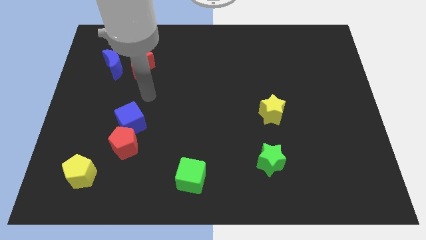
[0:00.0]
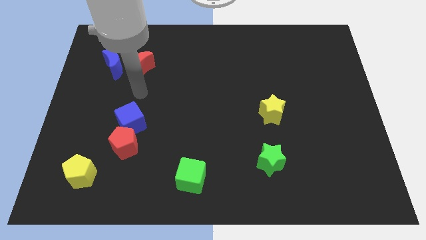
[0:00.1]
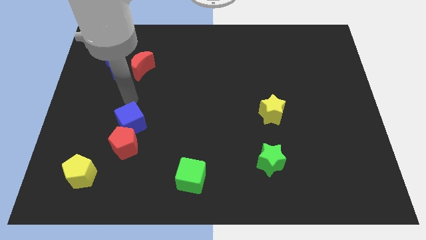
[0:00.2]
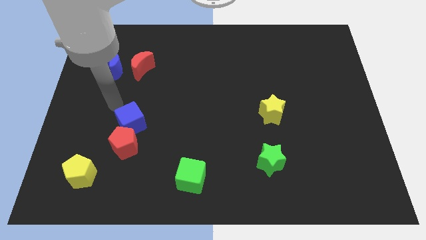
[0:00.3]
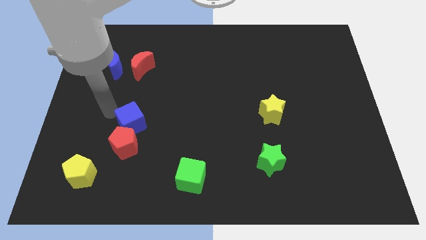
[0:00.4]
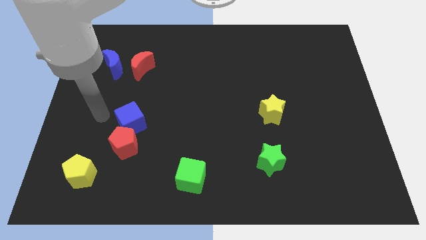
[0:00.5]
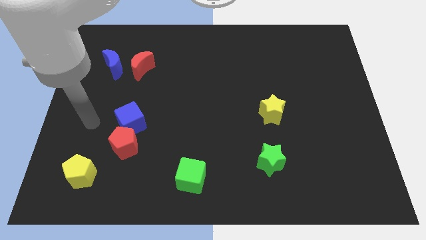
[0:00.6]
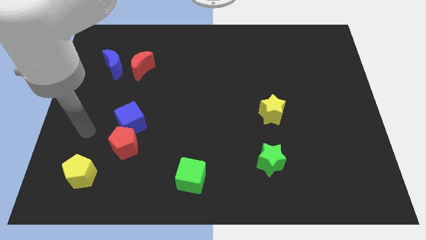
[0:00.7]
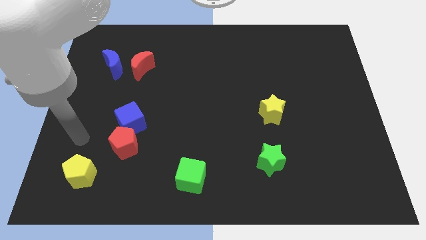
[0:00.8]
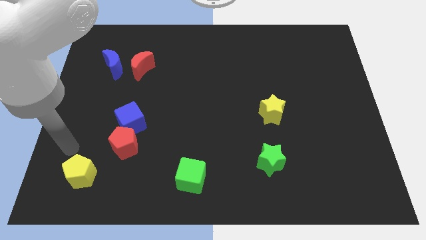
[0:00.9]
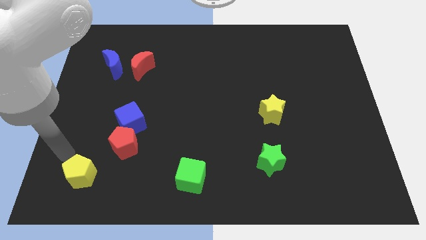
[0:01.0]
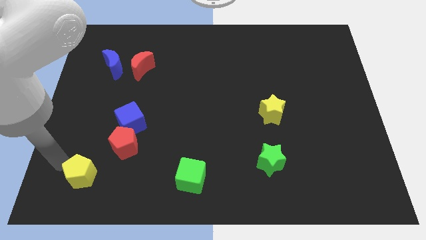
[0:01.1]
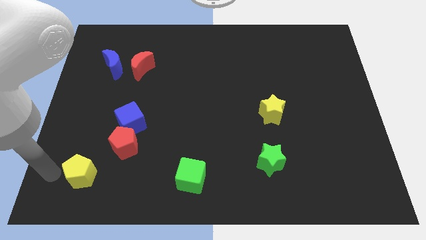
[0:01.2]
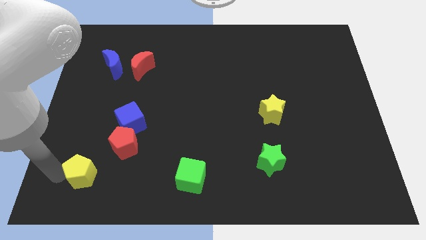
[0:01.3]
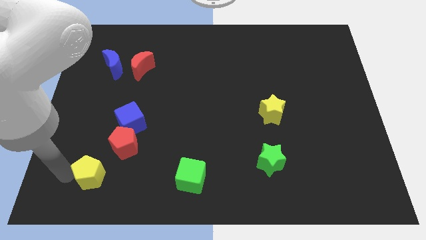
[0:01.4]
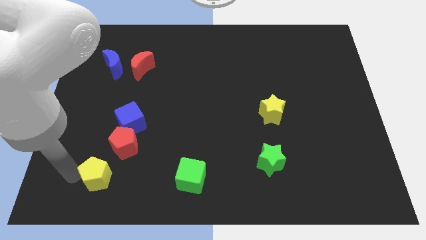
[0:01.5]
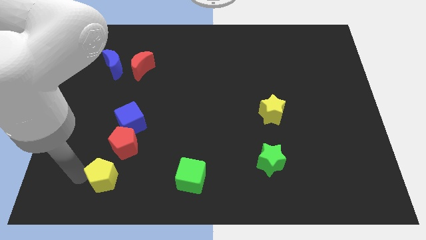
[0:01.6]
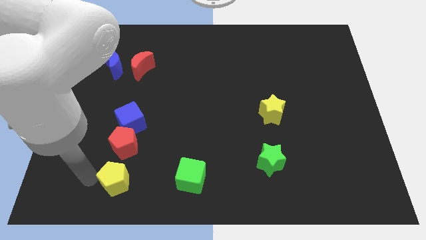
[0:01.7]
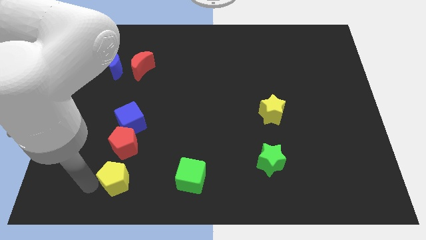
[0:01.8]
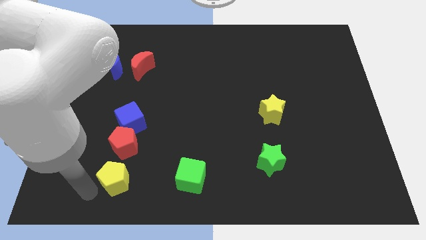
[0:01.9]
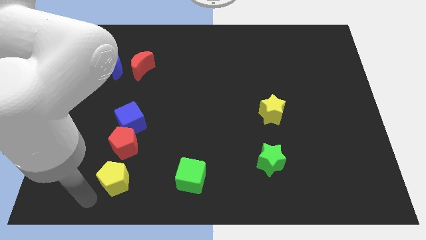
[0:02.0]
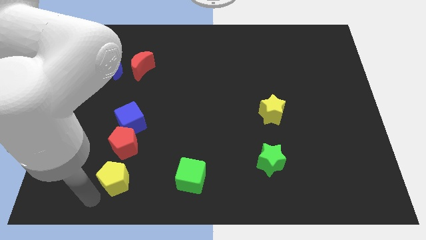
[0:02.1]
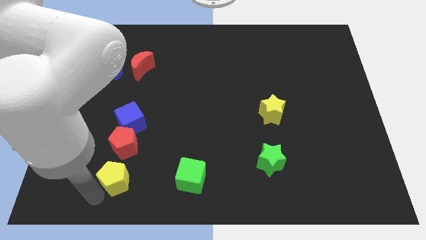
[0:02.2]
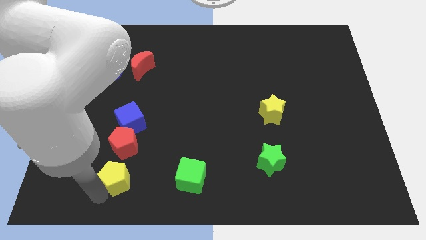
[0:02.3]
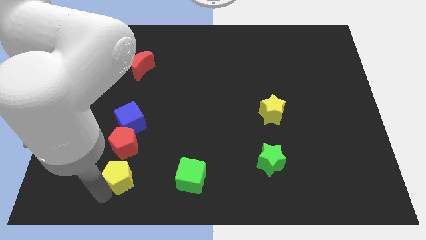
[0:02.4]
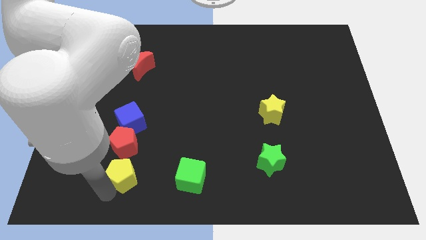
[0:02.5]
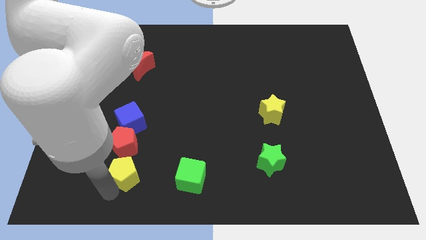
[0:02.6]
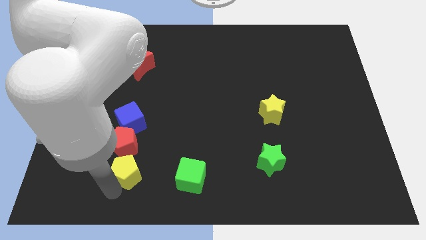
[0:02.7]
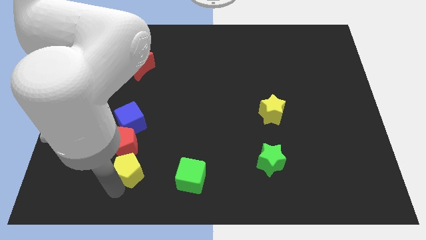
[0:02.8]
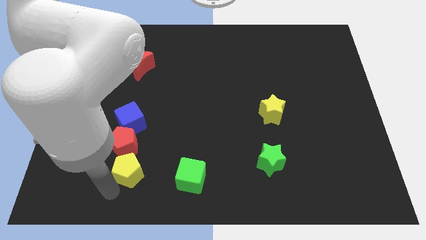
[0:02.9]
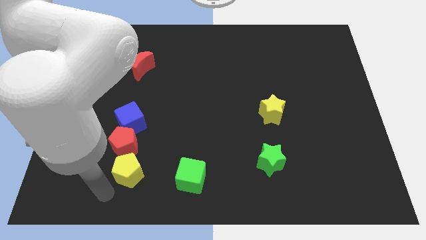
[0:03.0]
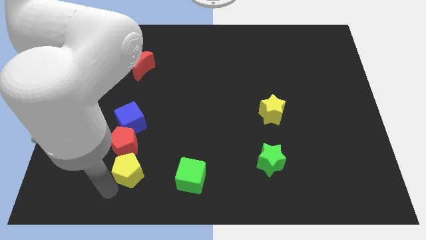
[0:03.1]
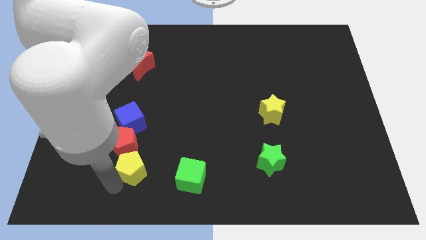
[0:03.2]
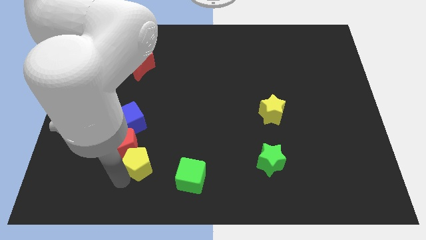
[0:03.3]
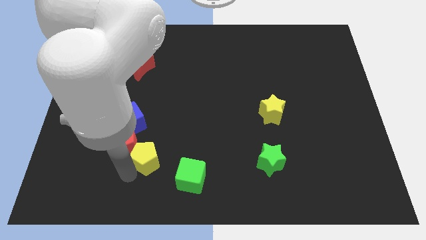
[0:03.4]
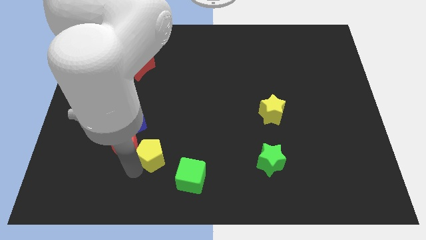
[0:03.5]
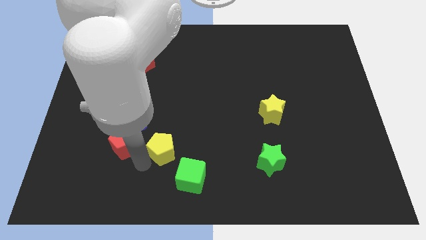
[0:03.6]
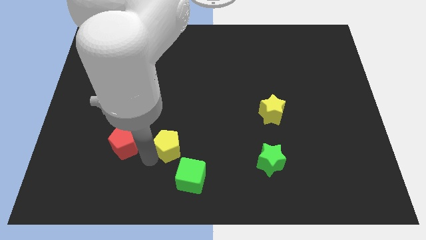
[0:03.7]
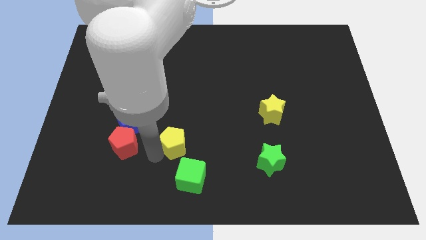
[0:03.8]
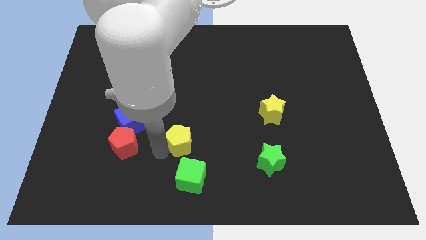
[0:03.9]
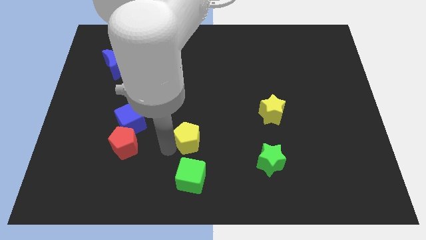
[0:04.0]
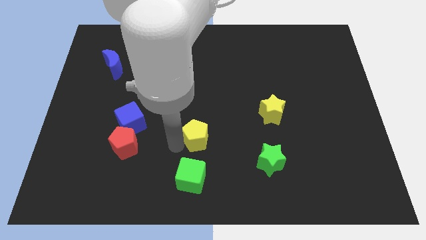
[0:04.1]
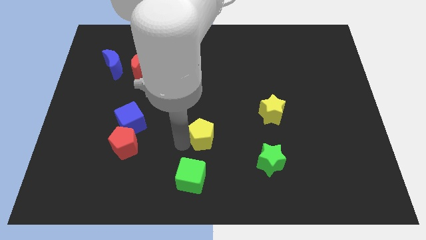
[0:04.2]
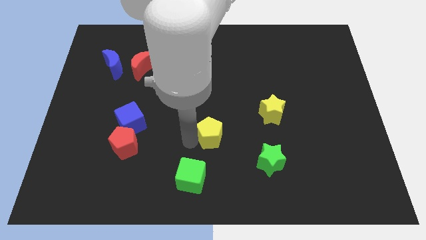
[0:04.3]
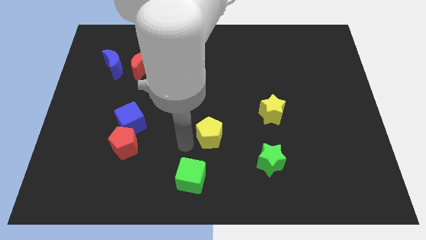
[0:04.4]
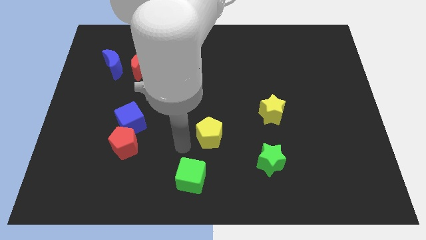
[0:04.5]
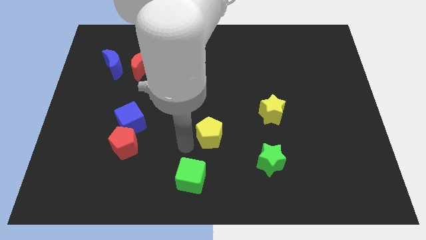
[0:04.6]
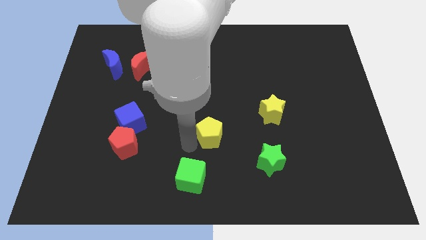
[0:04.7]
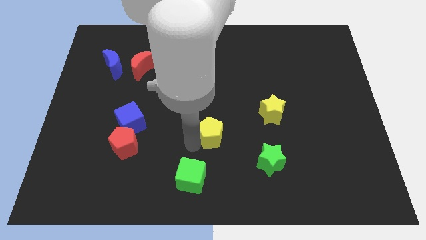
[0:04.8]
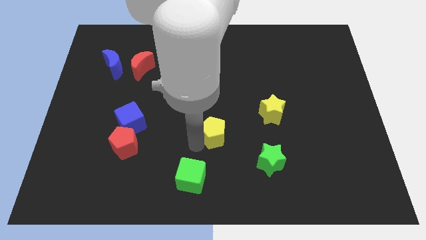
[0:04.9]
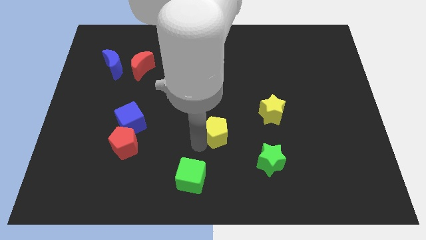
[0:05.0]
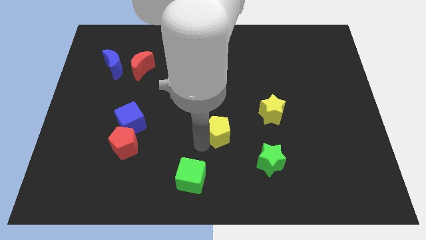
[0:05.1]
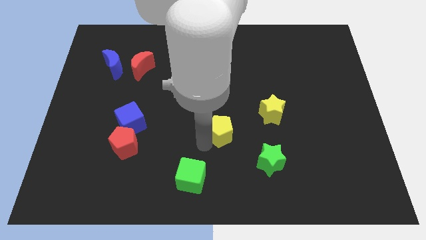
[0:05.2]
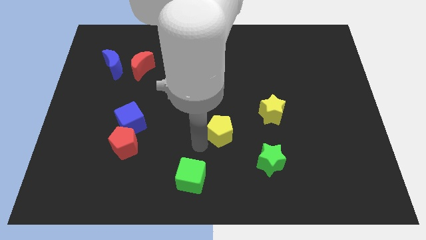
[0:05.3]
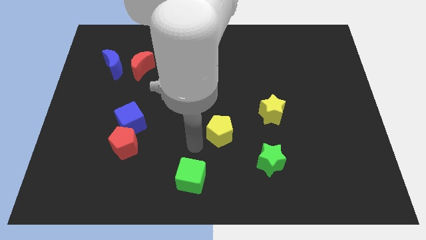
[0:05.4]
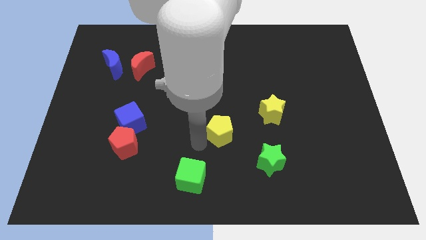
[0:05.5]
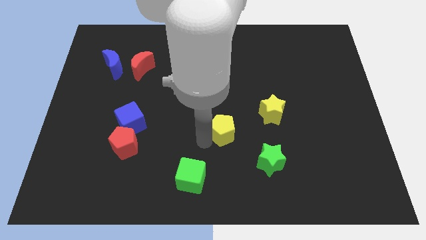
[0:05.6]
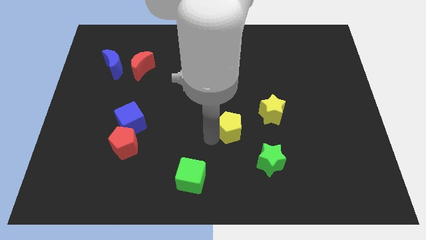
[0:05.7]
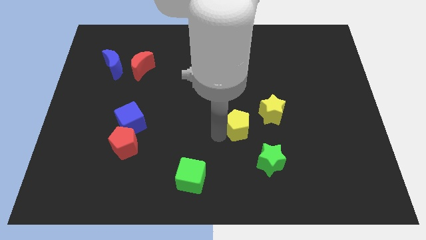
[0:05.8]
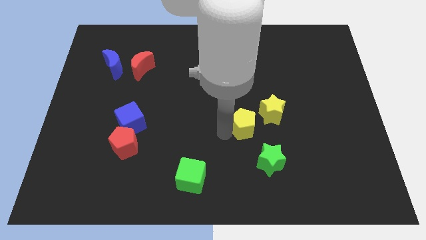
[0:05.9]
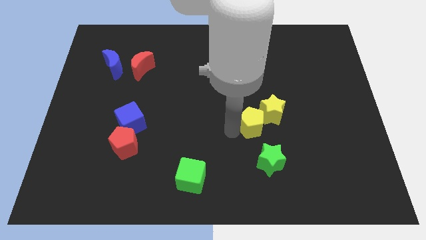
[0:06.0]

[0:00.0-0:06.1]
put the yellow pentagon towards the yellow star

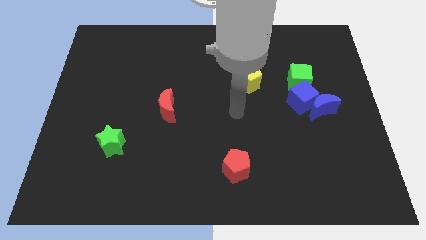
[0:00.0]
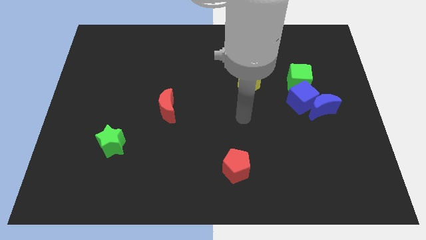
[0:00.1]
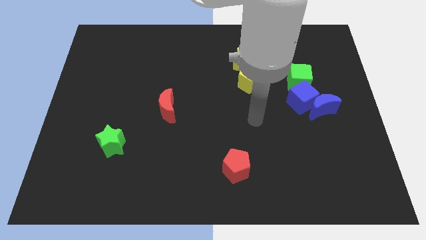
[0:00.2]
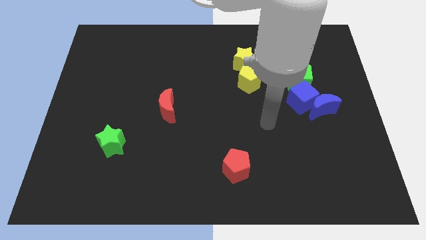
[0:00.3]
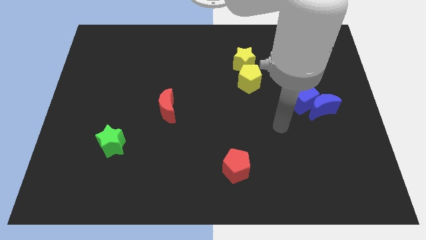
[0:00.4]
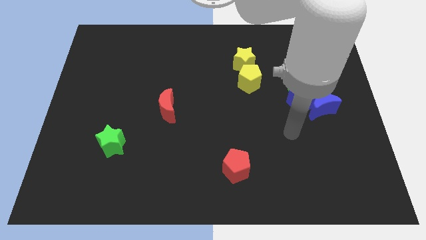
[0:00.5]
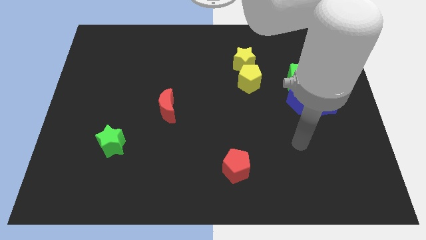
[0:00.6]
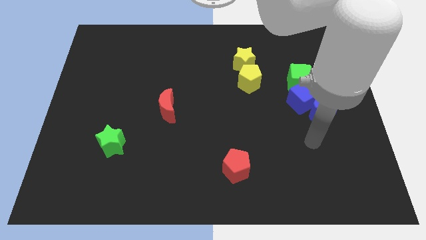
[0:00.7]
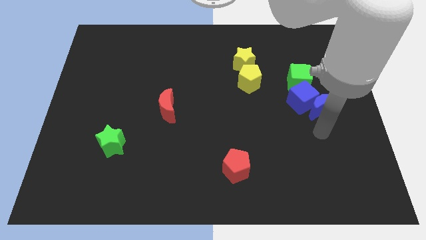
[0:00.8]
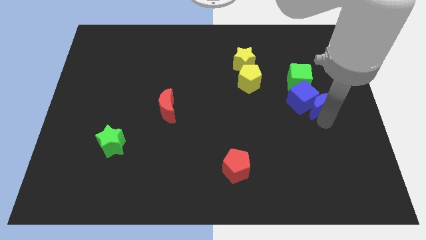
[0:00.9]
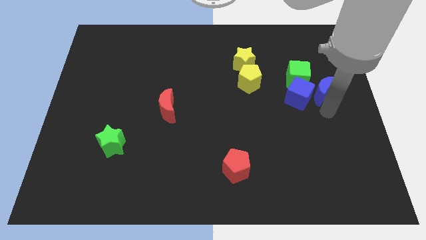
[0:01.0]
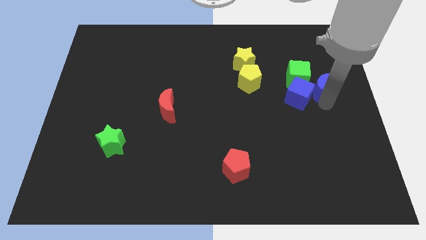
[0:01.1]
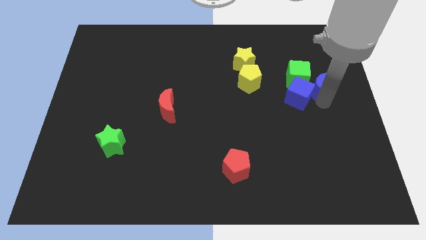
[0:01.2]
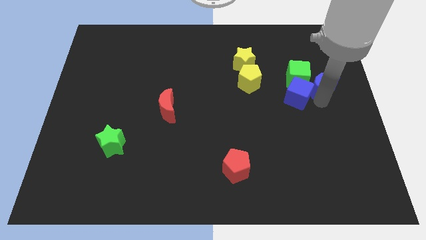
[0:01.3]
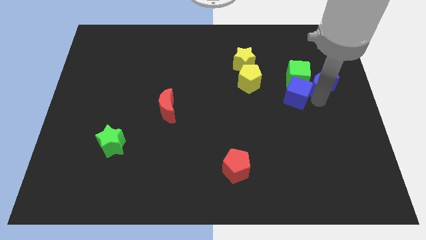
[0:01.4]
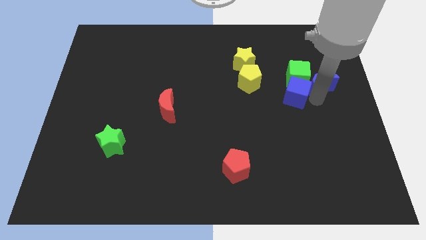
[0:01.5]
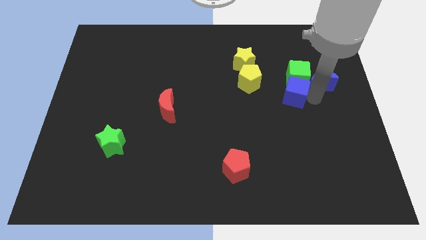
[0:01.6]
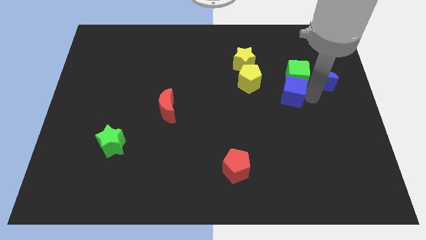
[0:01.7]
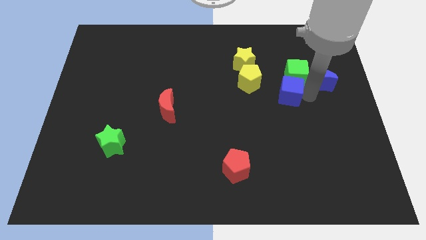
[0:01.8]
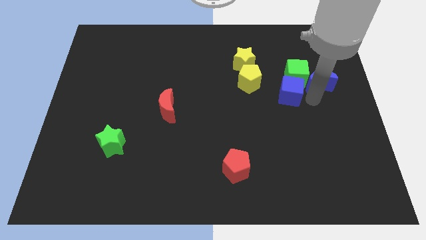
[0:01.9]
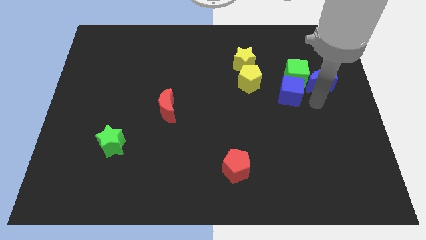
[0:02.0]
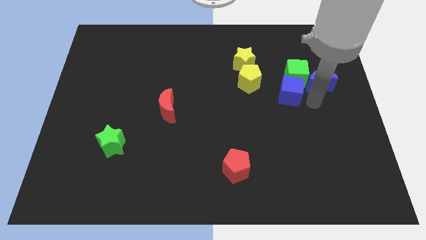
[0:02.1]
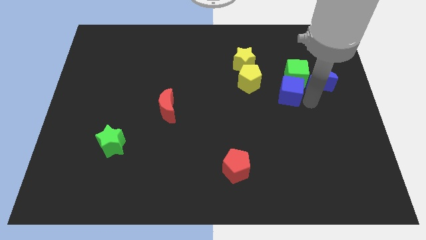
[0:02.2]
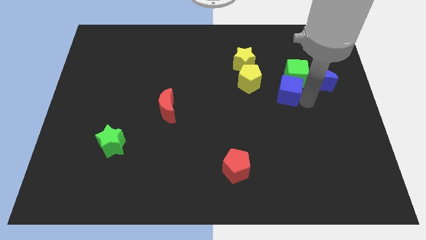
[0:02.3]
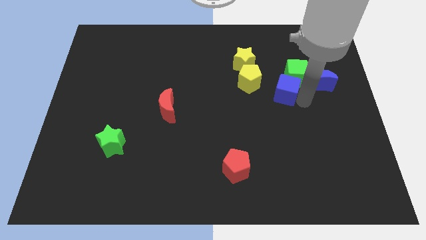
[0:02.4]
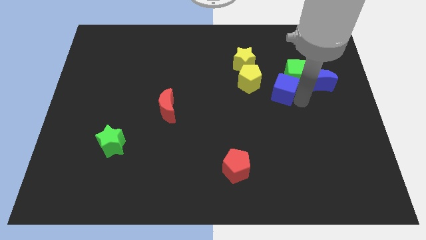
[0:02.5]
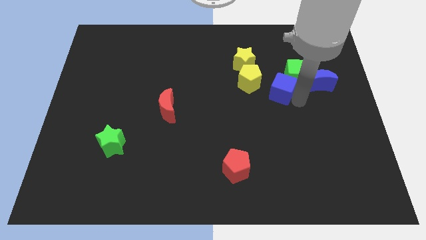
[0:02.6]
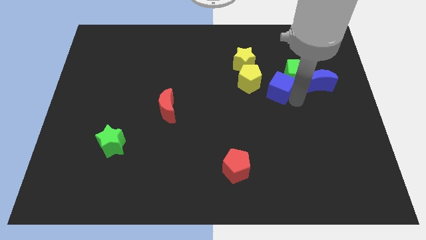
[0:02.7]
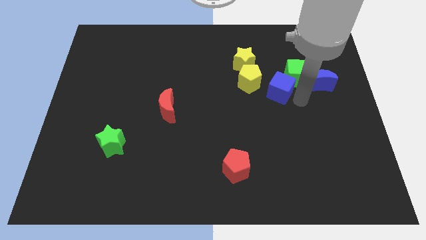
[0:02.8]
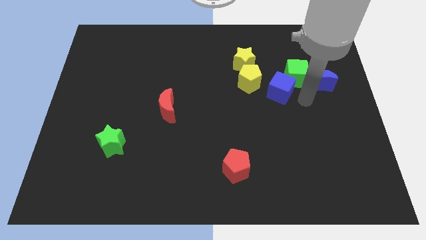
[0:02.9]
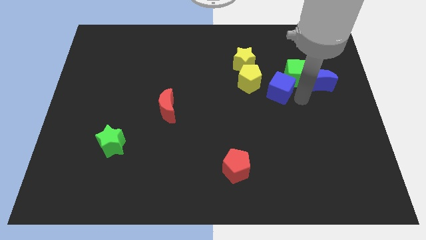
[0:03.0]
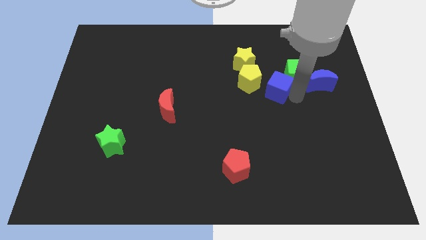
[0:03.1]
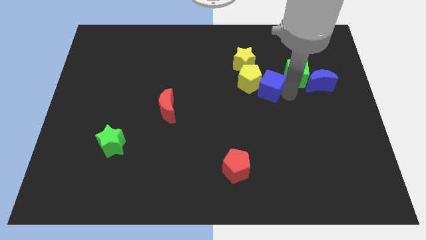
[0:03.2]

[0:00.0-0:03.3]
slide the blue cube to the yellow pentagon
